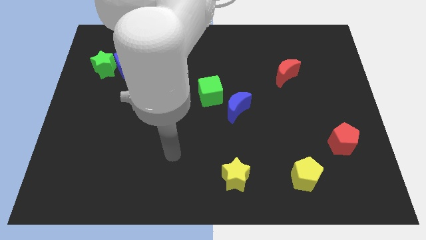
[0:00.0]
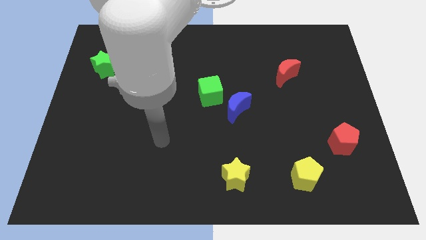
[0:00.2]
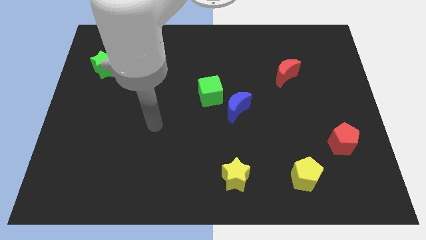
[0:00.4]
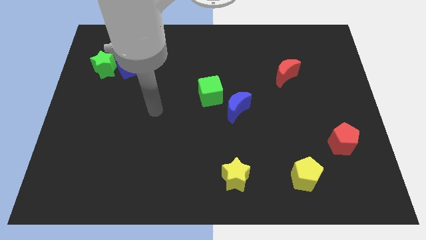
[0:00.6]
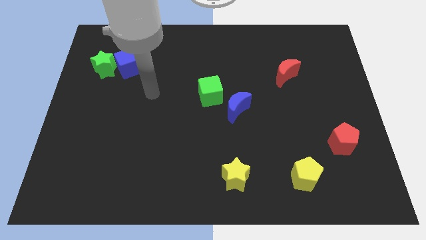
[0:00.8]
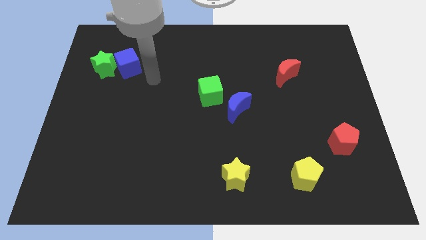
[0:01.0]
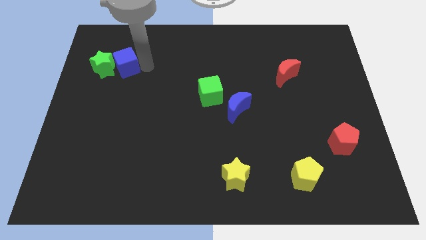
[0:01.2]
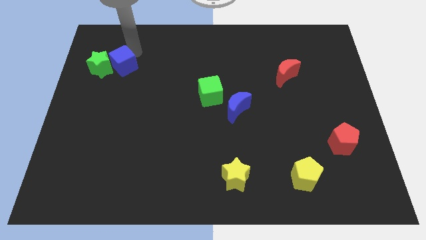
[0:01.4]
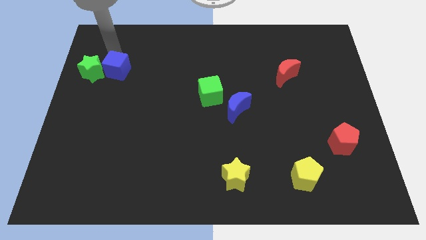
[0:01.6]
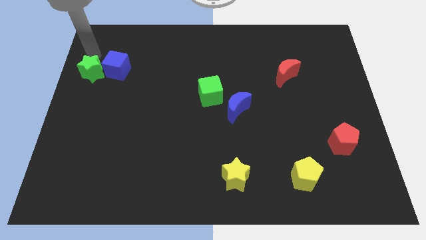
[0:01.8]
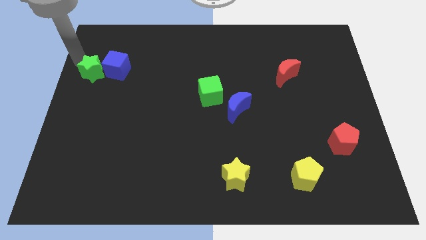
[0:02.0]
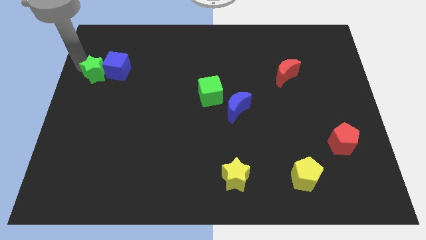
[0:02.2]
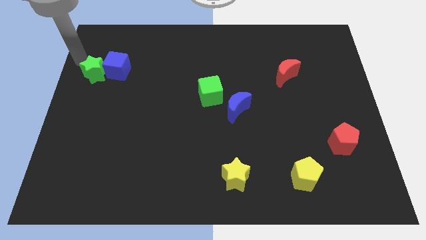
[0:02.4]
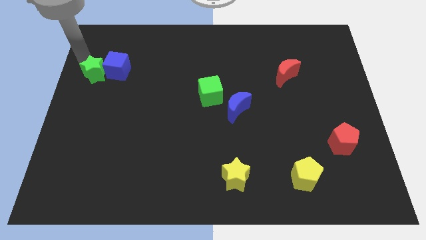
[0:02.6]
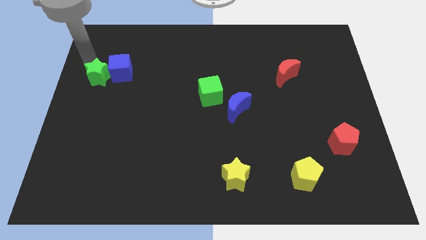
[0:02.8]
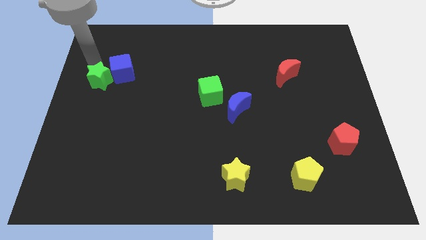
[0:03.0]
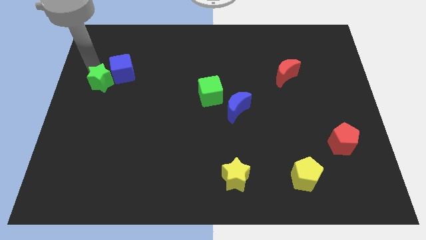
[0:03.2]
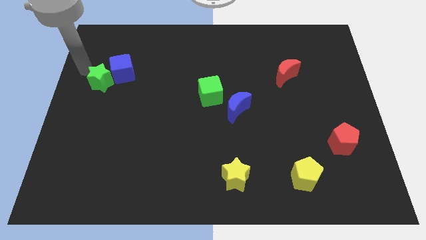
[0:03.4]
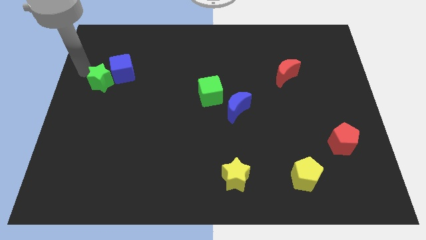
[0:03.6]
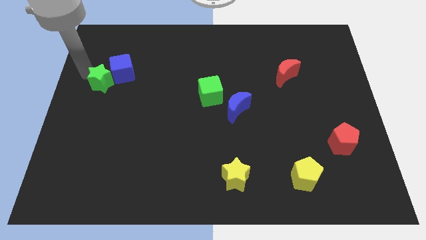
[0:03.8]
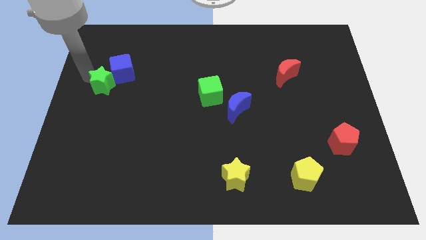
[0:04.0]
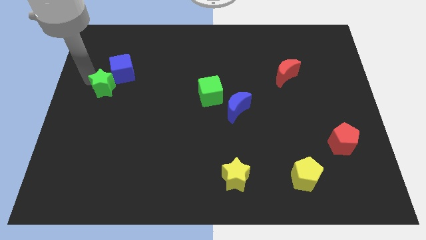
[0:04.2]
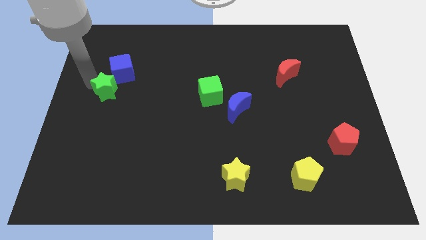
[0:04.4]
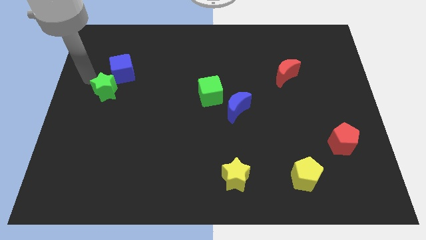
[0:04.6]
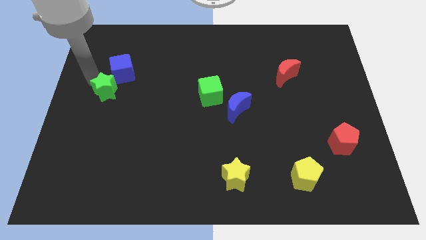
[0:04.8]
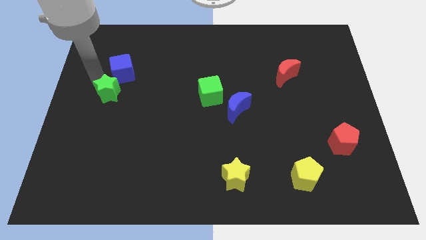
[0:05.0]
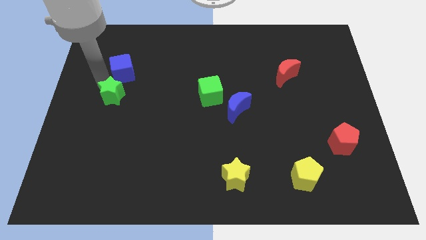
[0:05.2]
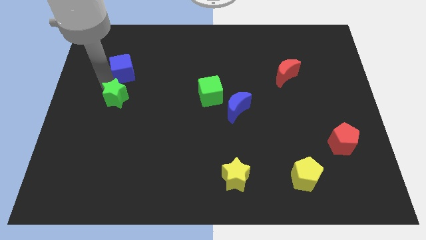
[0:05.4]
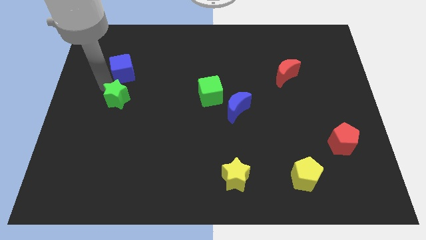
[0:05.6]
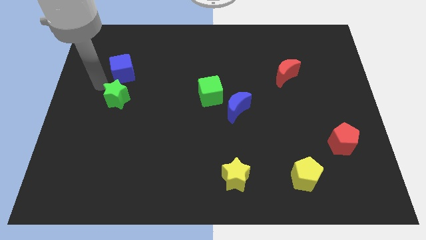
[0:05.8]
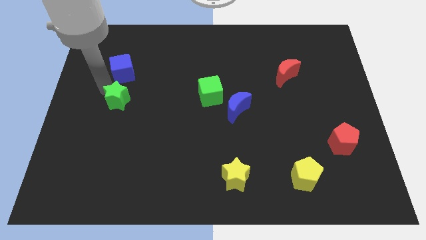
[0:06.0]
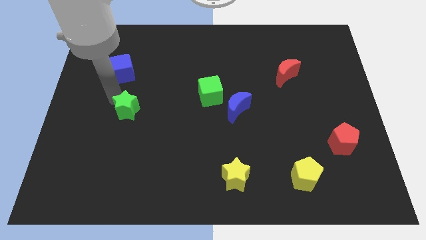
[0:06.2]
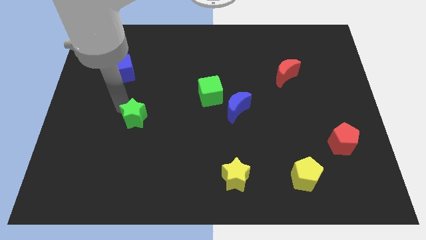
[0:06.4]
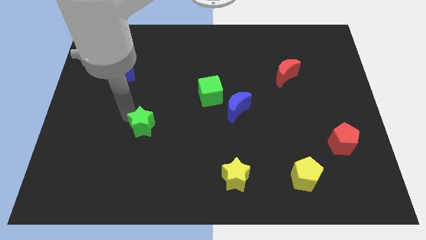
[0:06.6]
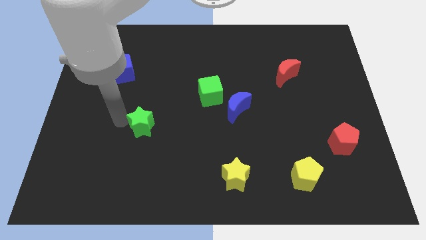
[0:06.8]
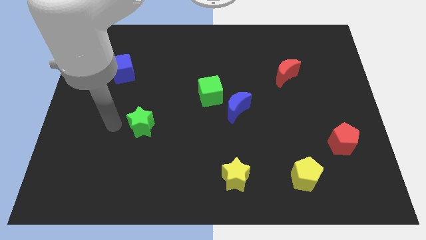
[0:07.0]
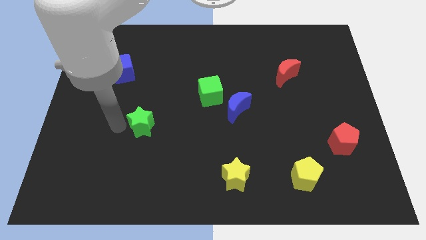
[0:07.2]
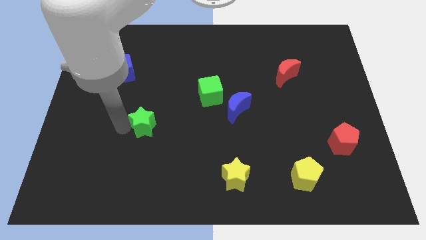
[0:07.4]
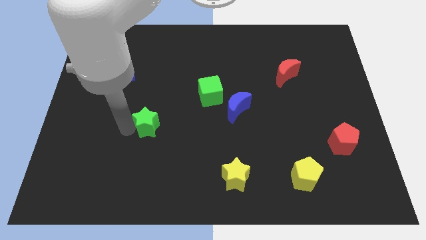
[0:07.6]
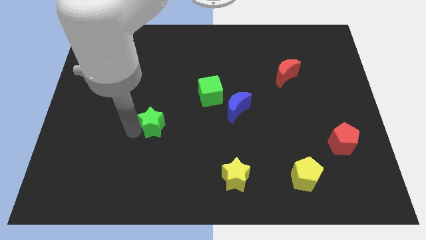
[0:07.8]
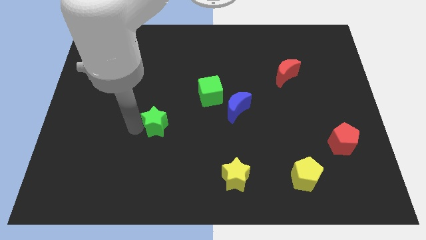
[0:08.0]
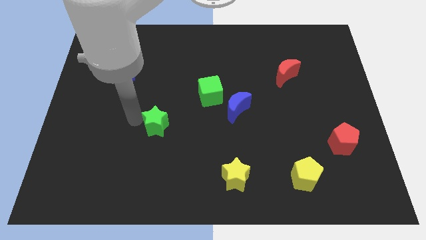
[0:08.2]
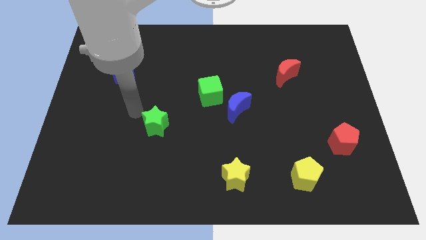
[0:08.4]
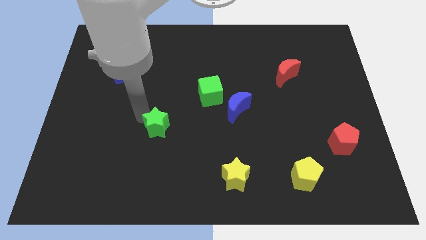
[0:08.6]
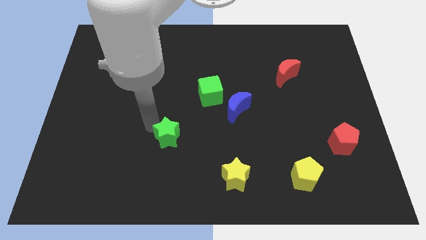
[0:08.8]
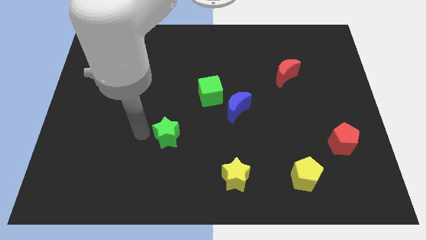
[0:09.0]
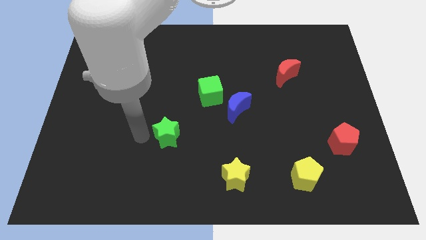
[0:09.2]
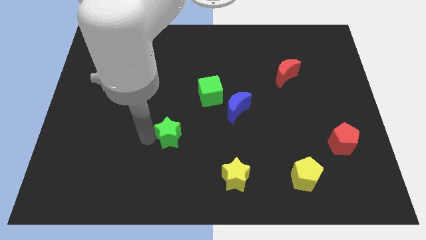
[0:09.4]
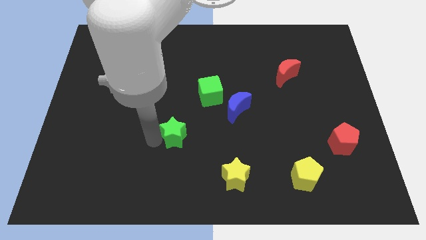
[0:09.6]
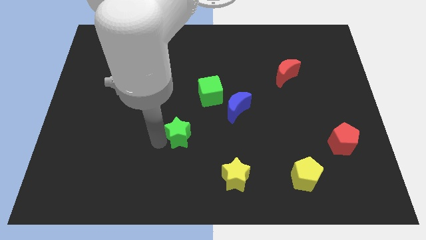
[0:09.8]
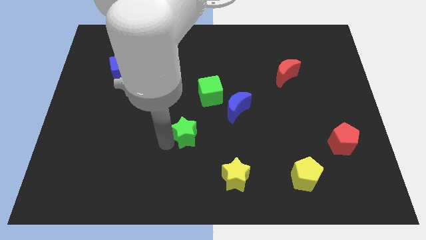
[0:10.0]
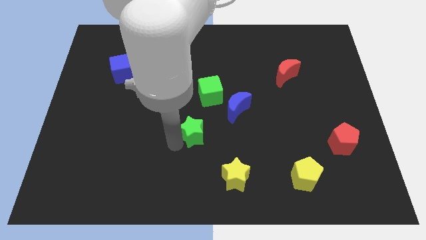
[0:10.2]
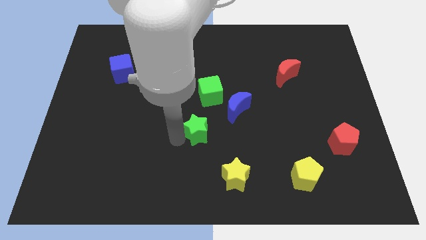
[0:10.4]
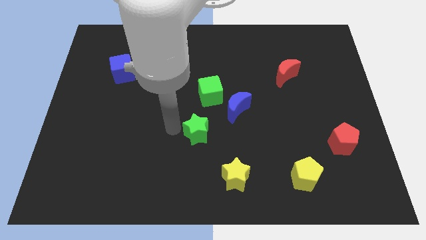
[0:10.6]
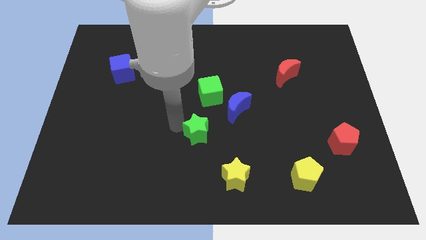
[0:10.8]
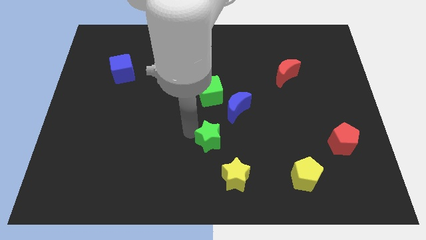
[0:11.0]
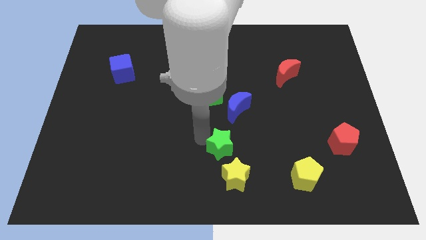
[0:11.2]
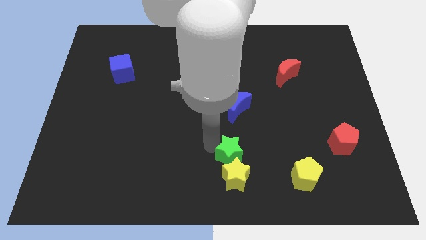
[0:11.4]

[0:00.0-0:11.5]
put the green star to the top right of the yellow star

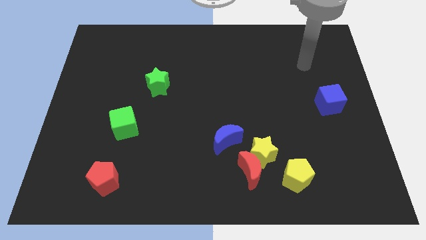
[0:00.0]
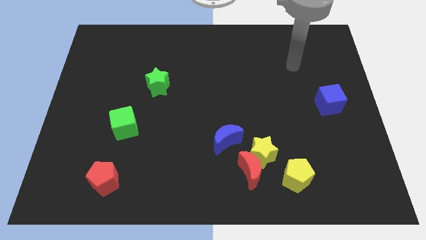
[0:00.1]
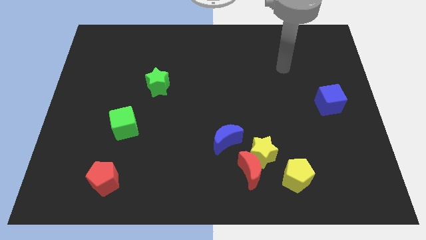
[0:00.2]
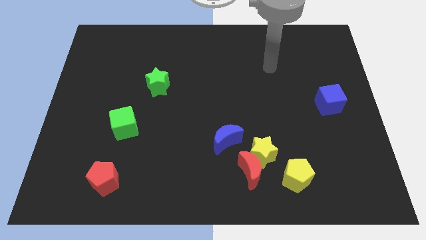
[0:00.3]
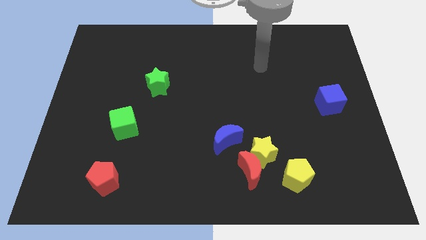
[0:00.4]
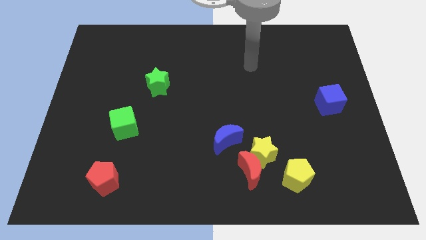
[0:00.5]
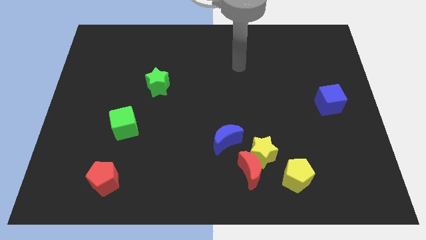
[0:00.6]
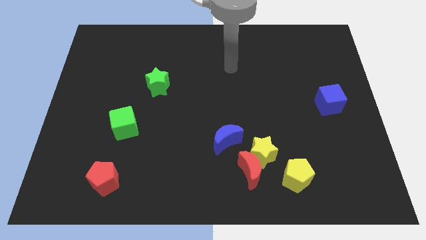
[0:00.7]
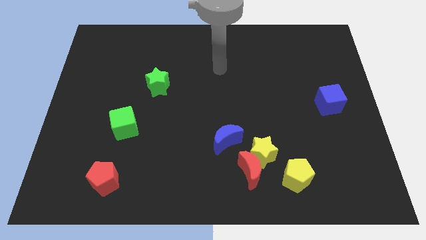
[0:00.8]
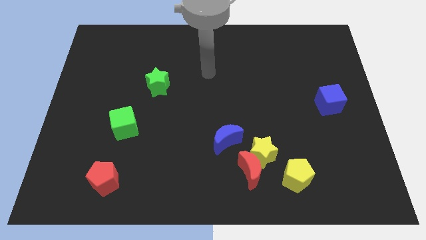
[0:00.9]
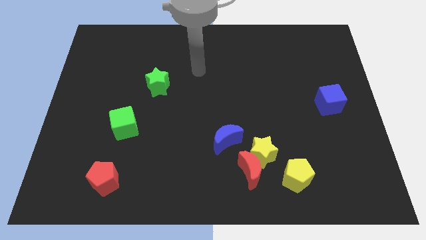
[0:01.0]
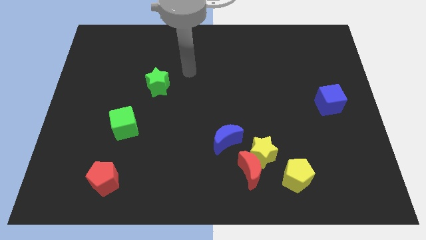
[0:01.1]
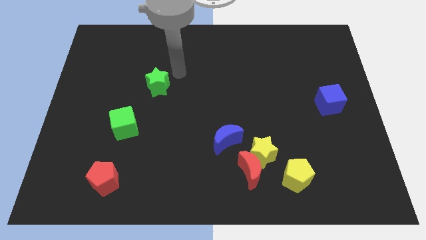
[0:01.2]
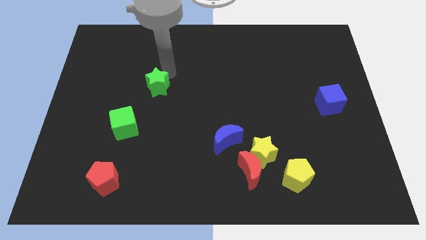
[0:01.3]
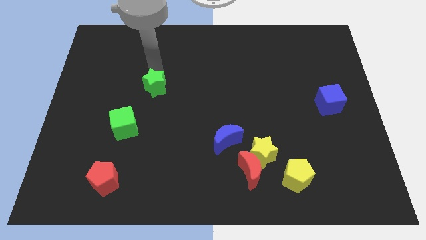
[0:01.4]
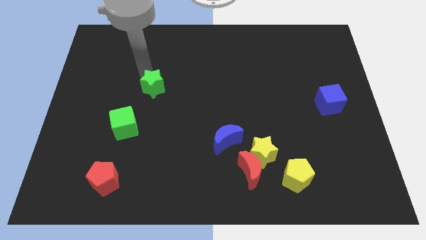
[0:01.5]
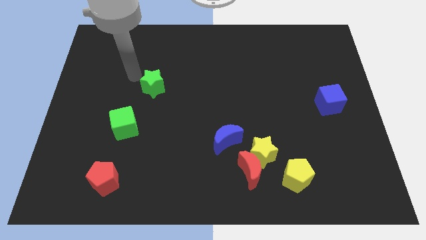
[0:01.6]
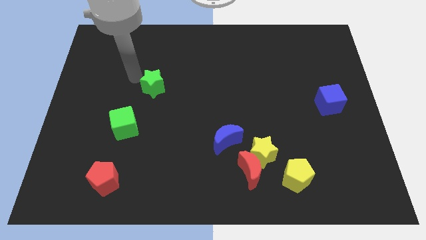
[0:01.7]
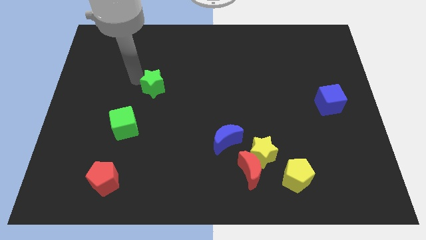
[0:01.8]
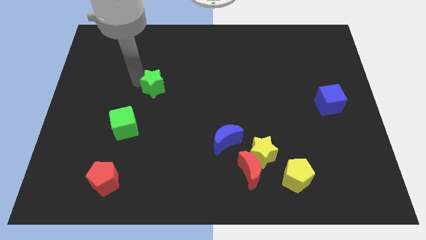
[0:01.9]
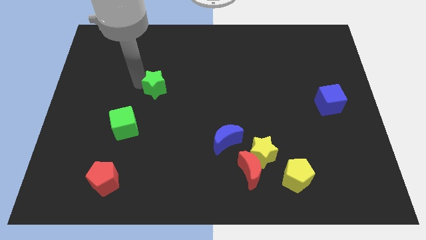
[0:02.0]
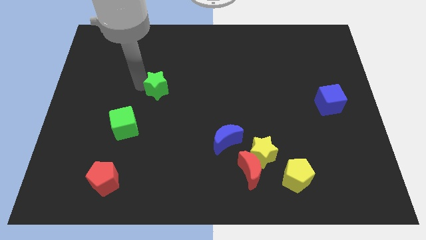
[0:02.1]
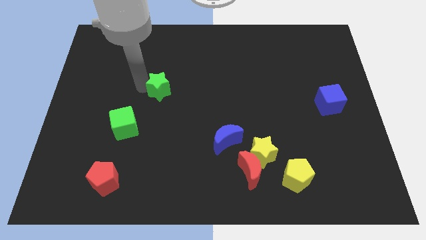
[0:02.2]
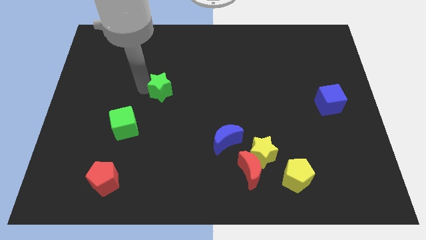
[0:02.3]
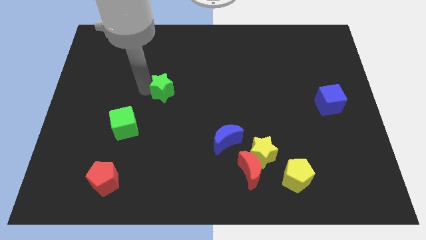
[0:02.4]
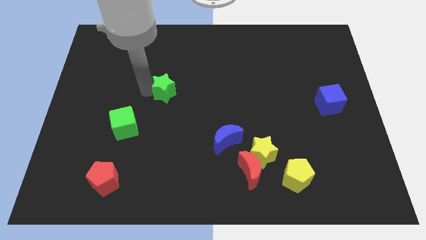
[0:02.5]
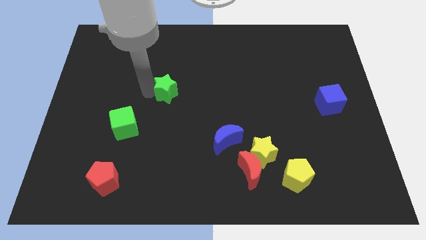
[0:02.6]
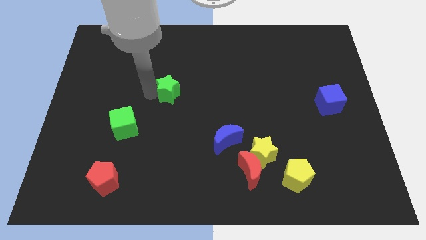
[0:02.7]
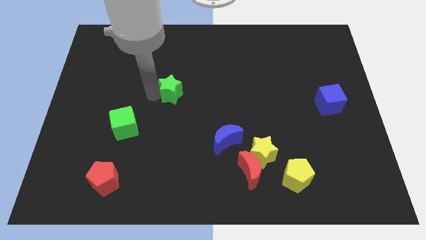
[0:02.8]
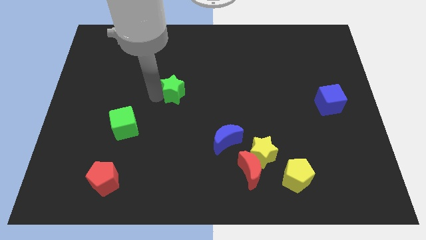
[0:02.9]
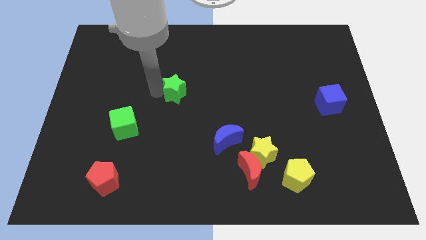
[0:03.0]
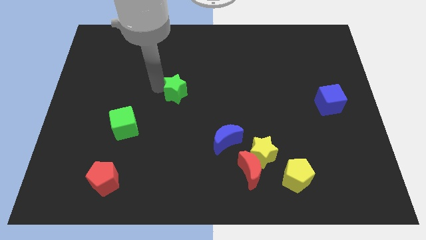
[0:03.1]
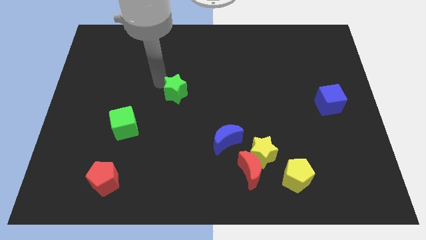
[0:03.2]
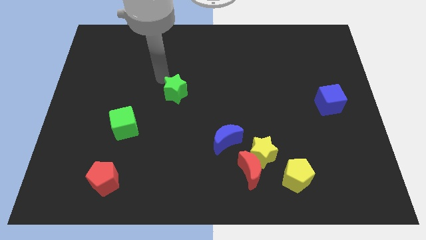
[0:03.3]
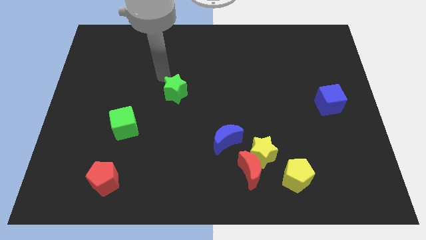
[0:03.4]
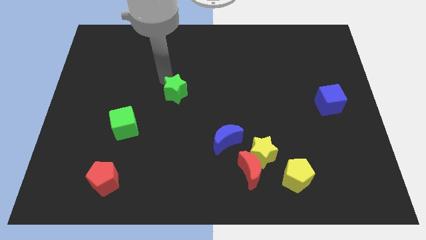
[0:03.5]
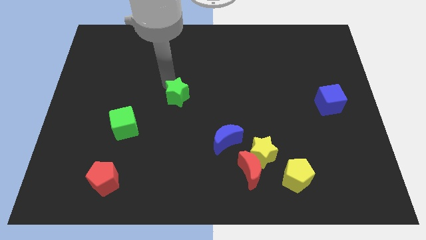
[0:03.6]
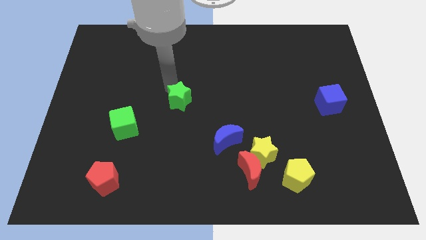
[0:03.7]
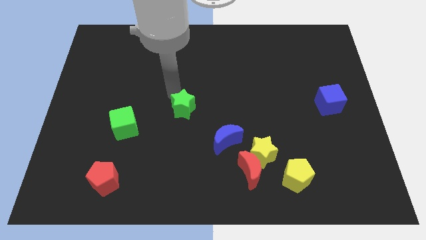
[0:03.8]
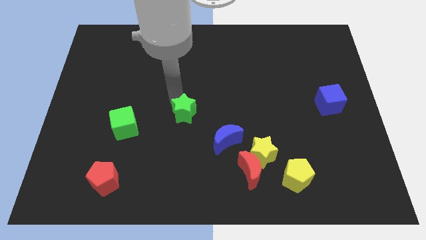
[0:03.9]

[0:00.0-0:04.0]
slide the green star diagonally up and to the left of the blue moon
